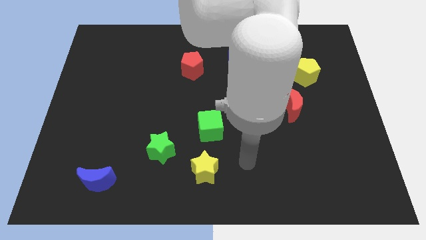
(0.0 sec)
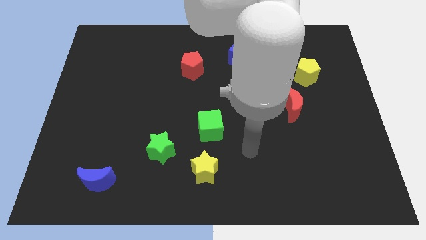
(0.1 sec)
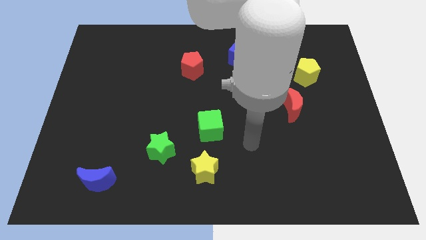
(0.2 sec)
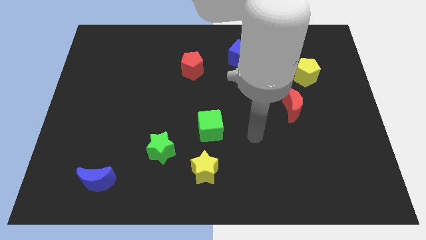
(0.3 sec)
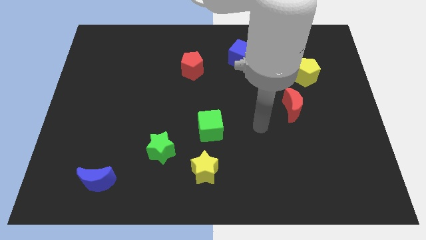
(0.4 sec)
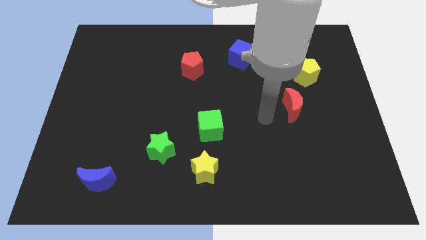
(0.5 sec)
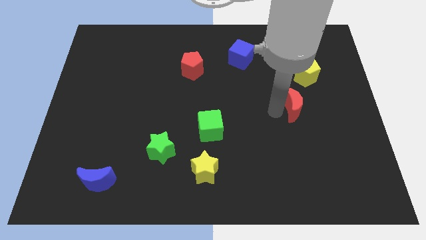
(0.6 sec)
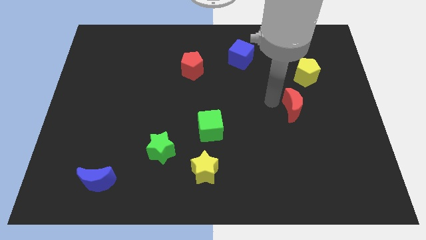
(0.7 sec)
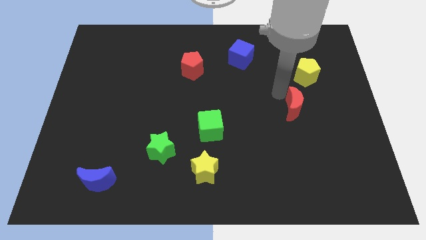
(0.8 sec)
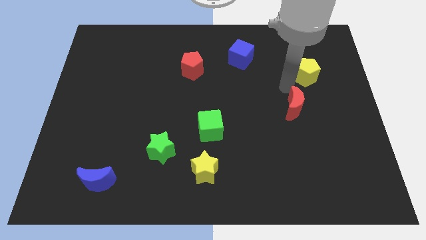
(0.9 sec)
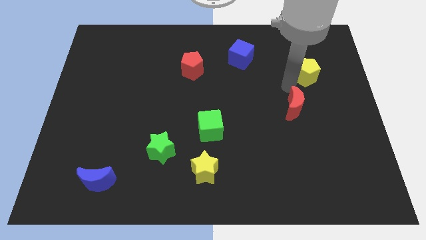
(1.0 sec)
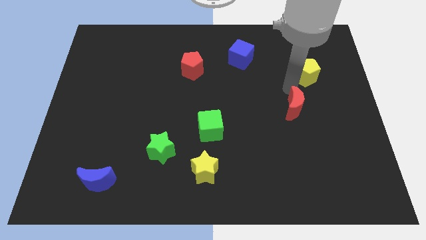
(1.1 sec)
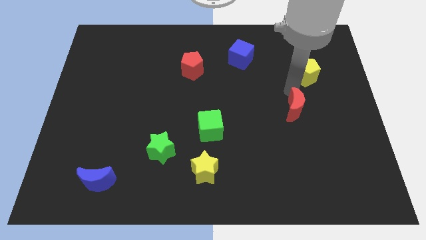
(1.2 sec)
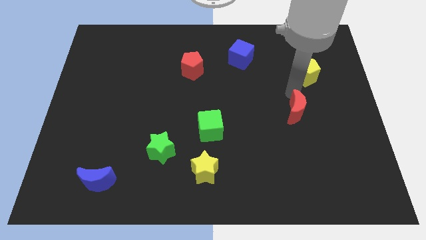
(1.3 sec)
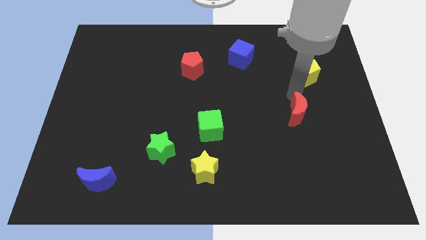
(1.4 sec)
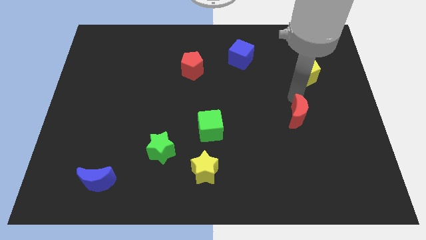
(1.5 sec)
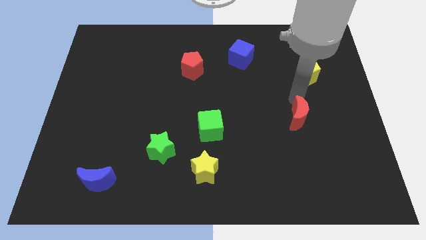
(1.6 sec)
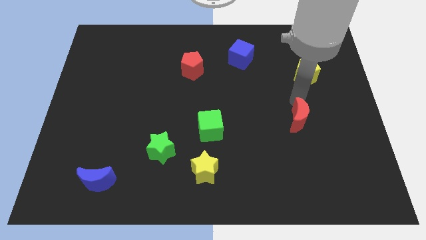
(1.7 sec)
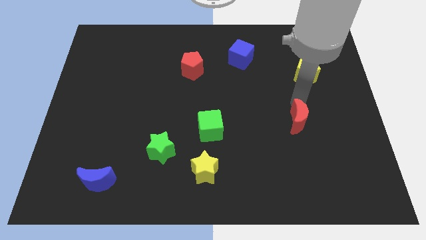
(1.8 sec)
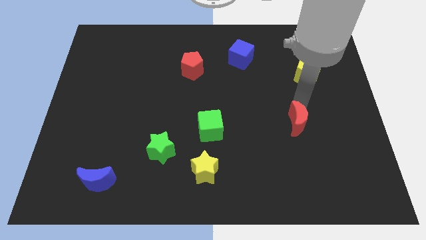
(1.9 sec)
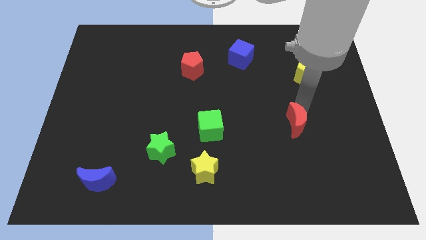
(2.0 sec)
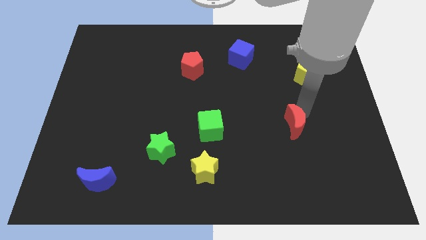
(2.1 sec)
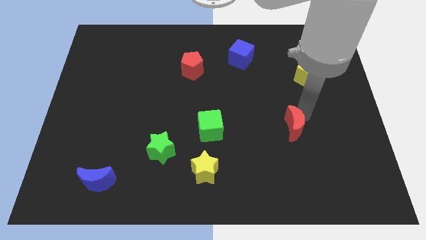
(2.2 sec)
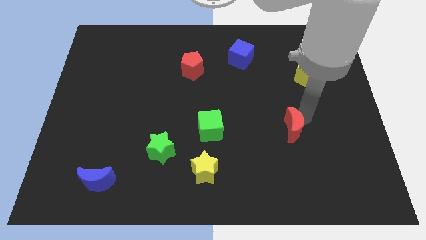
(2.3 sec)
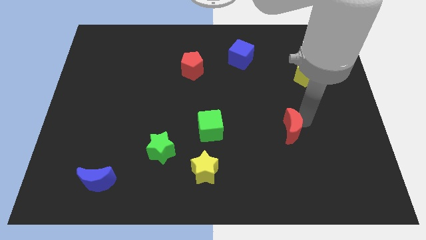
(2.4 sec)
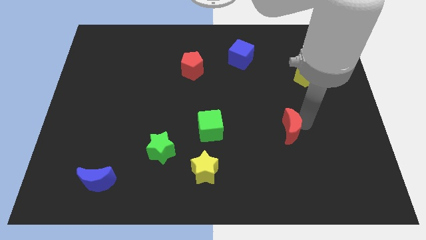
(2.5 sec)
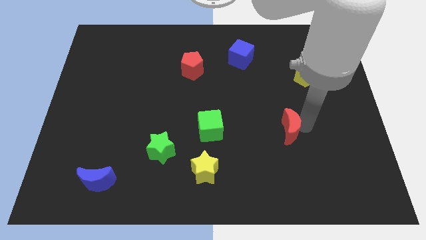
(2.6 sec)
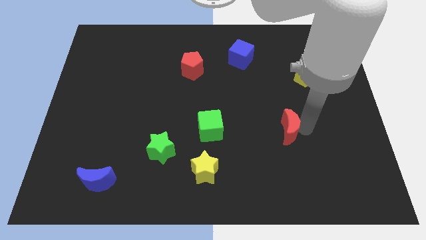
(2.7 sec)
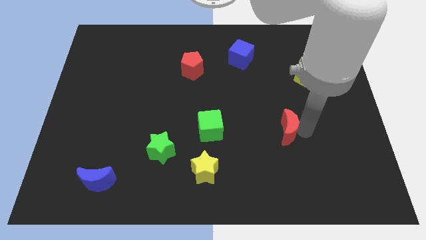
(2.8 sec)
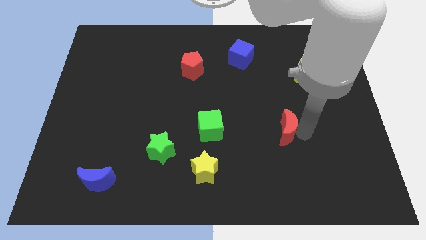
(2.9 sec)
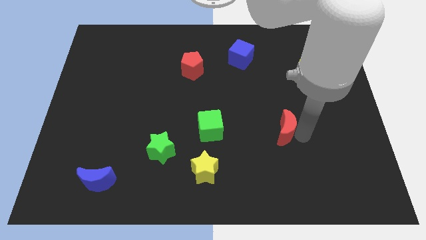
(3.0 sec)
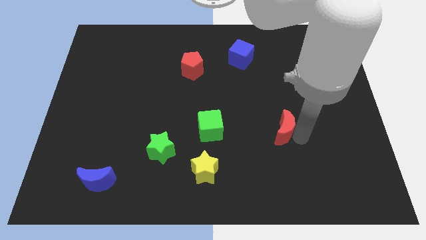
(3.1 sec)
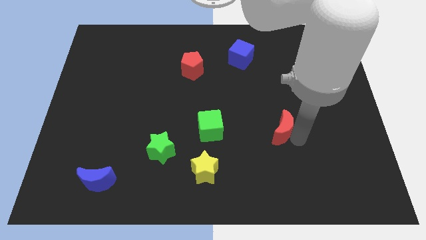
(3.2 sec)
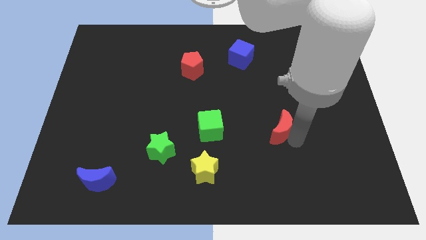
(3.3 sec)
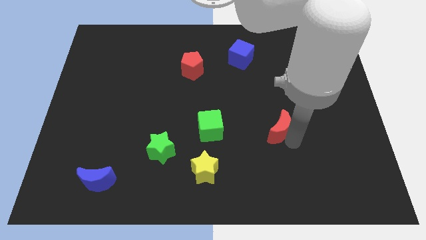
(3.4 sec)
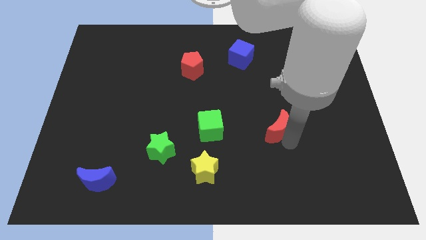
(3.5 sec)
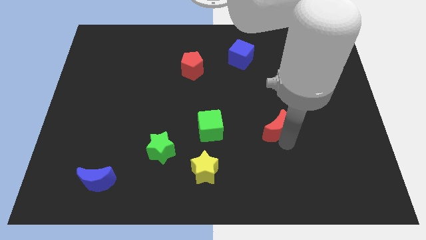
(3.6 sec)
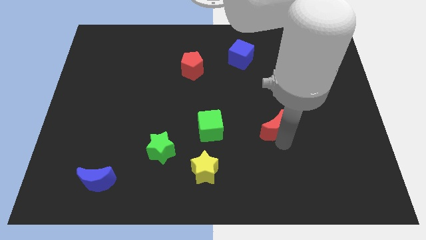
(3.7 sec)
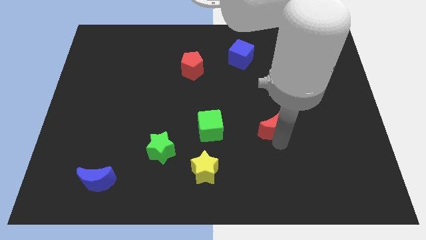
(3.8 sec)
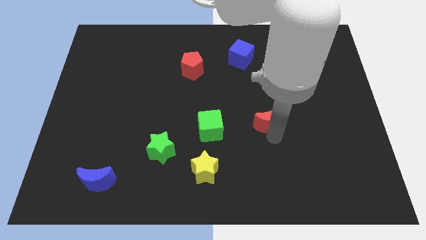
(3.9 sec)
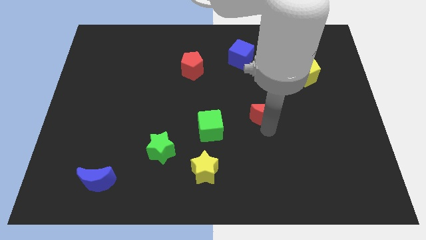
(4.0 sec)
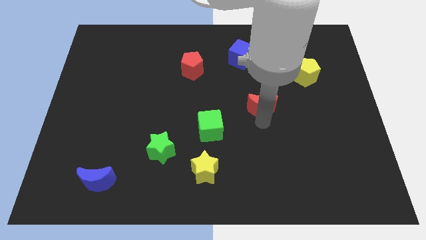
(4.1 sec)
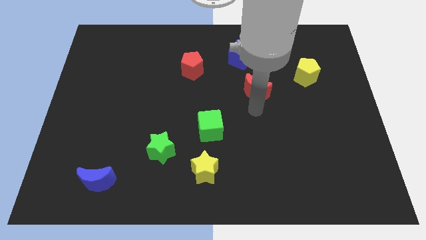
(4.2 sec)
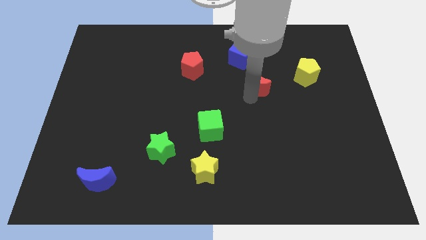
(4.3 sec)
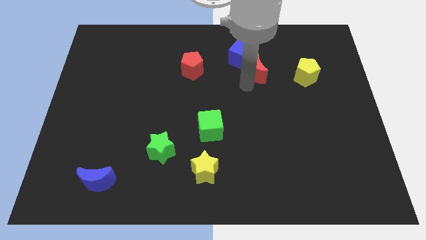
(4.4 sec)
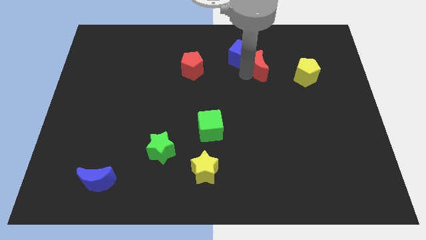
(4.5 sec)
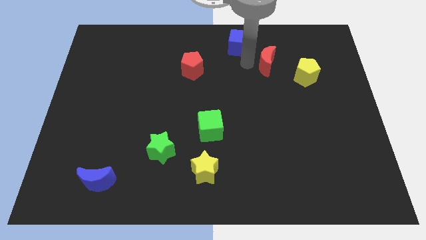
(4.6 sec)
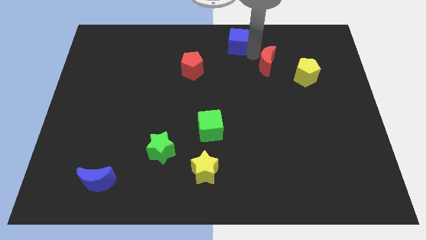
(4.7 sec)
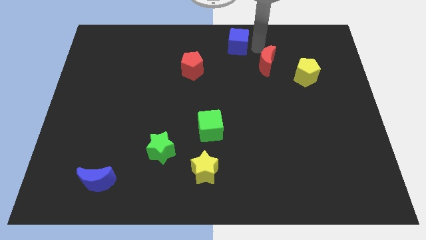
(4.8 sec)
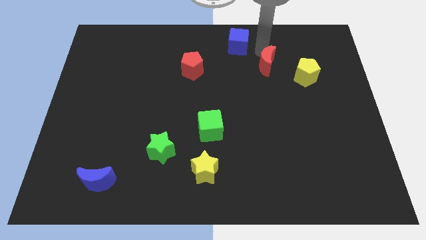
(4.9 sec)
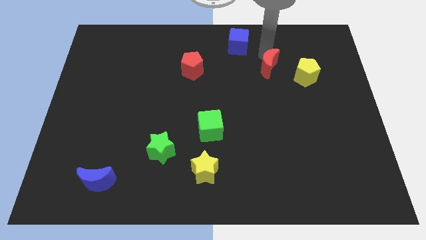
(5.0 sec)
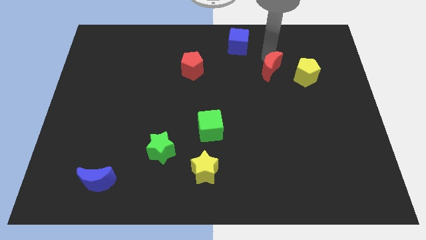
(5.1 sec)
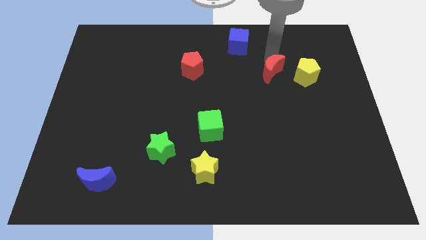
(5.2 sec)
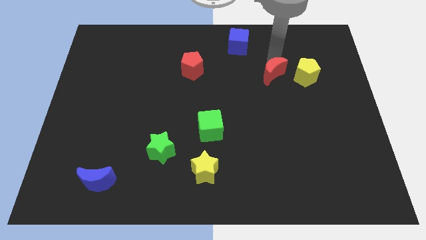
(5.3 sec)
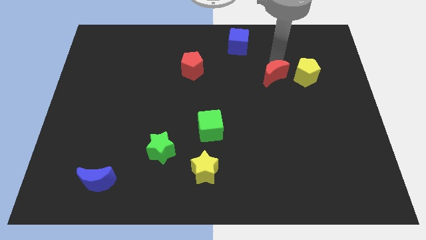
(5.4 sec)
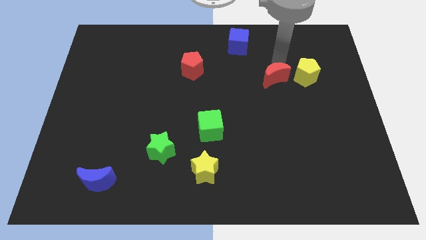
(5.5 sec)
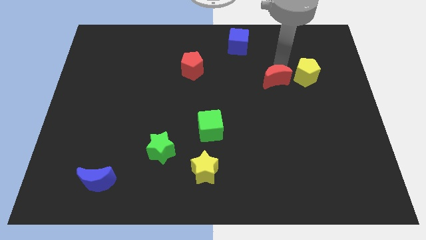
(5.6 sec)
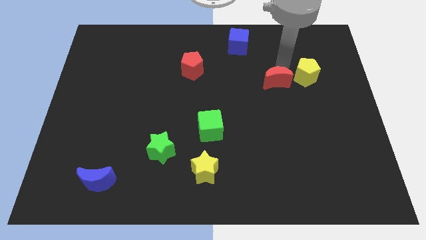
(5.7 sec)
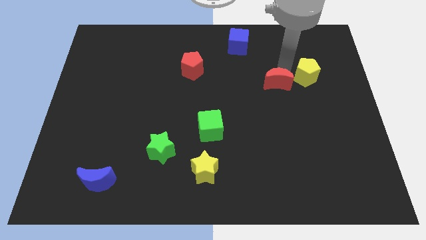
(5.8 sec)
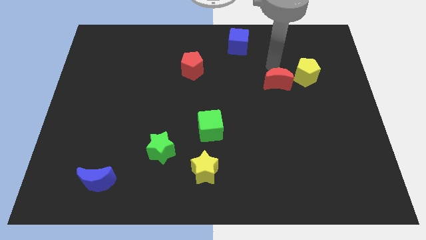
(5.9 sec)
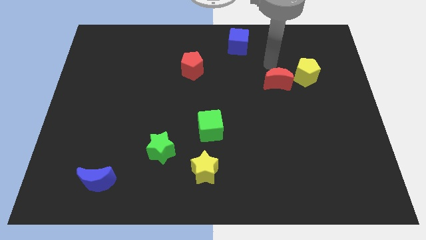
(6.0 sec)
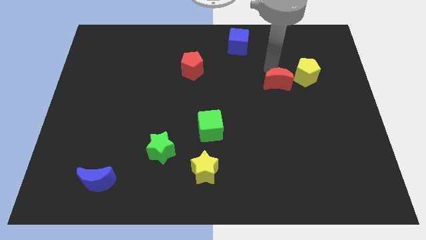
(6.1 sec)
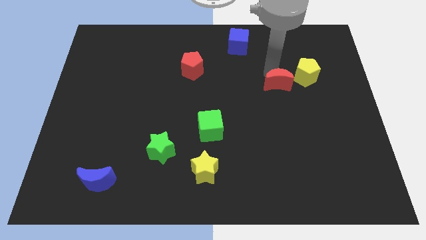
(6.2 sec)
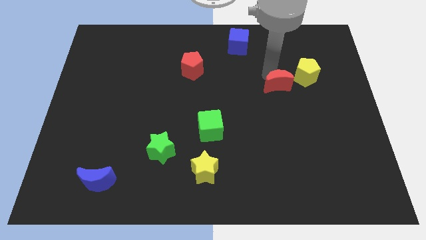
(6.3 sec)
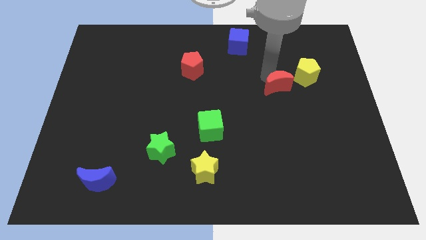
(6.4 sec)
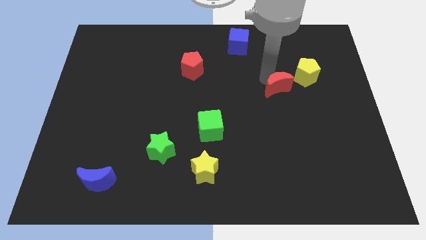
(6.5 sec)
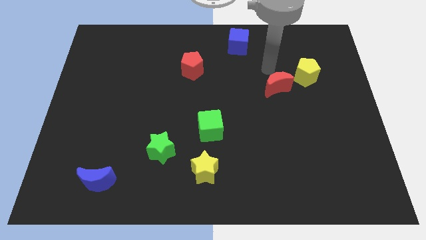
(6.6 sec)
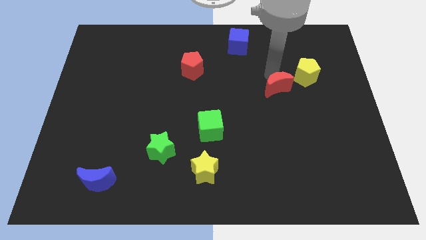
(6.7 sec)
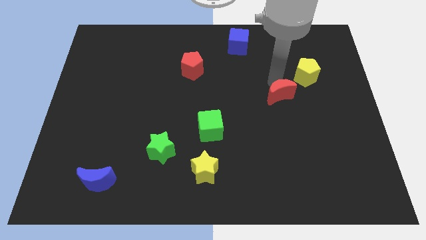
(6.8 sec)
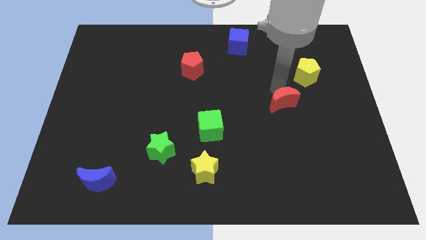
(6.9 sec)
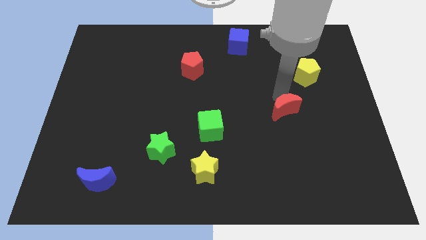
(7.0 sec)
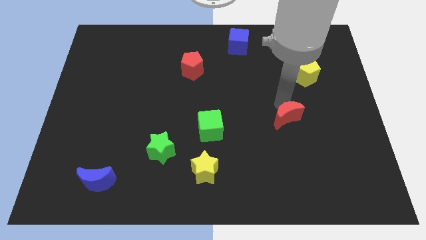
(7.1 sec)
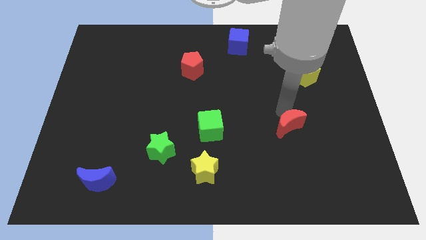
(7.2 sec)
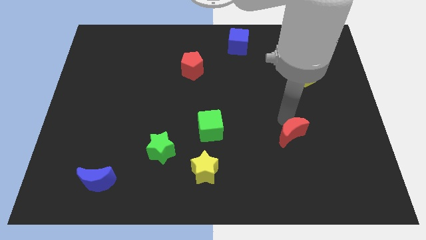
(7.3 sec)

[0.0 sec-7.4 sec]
slightly push the red moon down

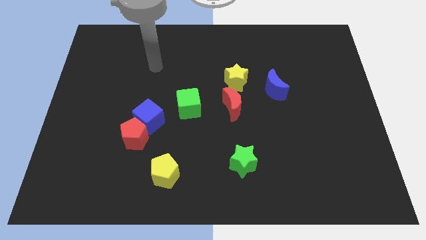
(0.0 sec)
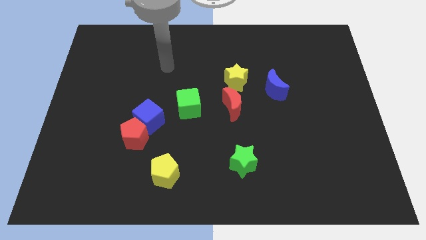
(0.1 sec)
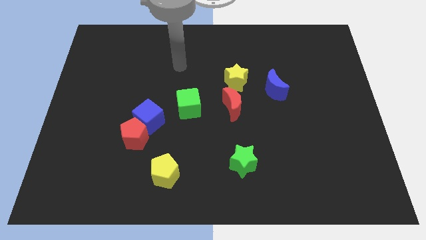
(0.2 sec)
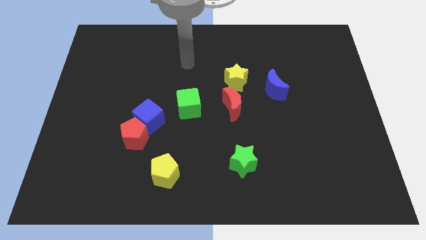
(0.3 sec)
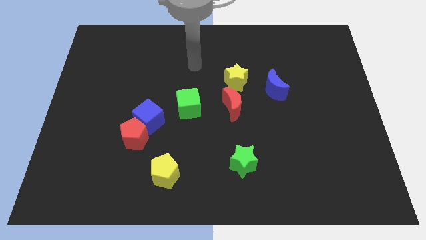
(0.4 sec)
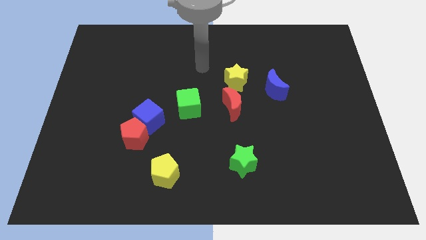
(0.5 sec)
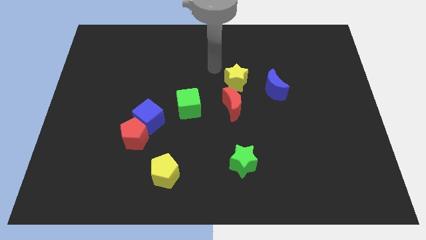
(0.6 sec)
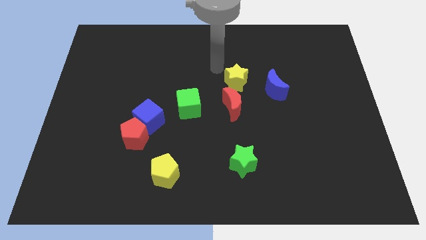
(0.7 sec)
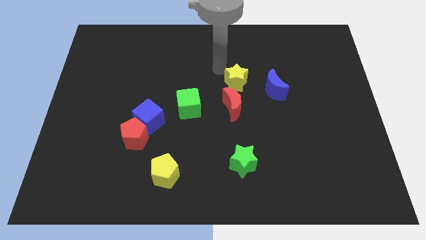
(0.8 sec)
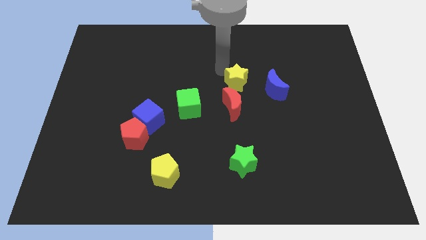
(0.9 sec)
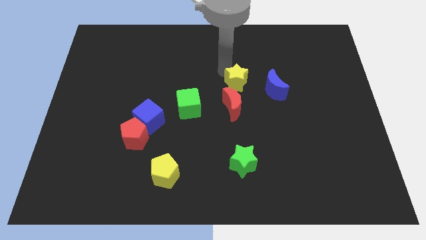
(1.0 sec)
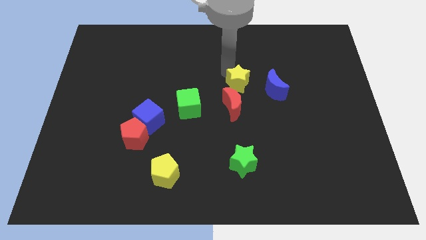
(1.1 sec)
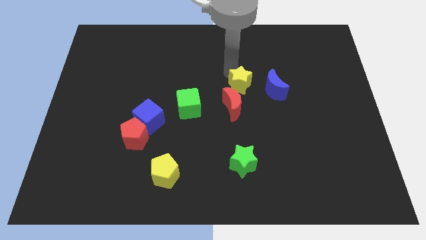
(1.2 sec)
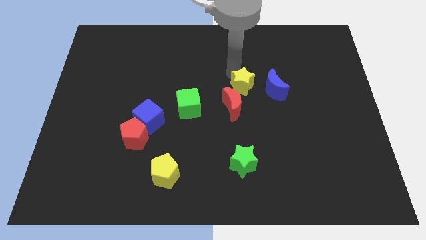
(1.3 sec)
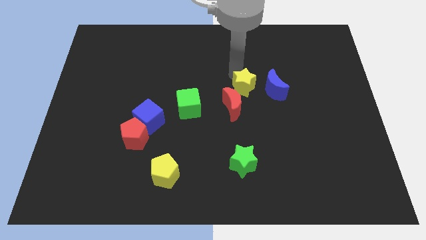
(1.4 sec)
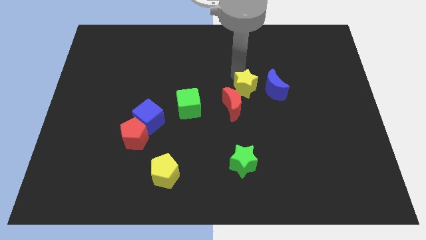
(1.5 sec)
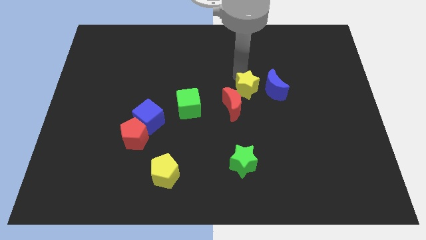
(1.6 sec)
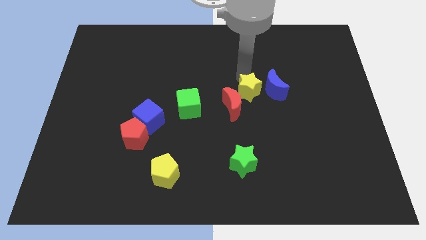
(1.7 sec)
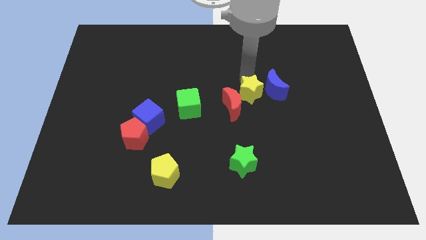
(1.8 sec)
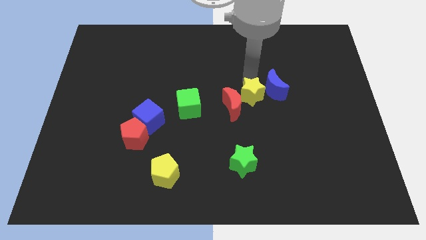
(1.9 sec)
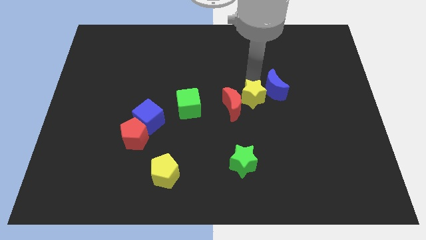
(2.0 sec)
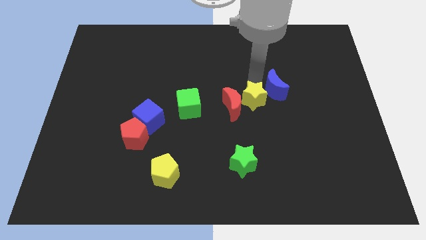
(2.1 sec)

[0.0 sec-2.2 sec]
slide the yellow star down and right diagonally slightly
